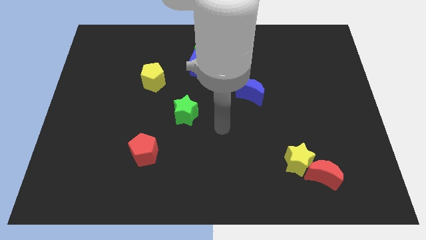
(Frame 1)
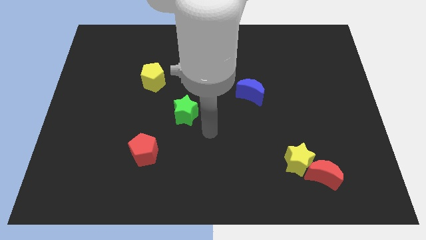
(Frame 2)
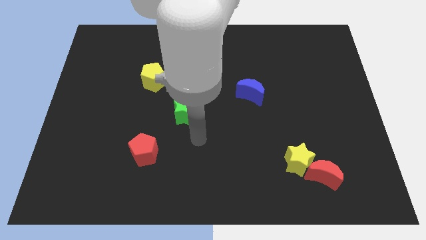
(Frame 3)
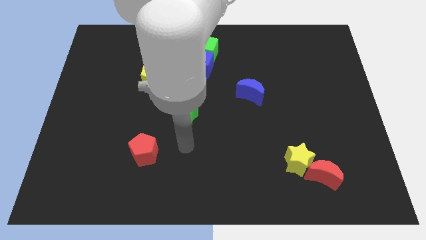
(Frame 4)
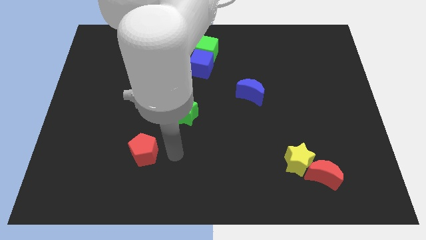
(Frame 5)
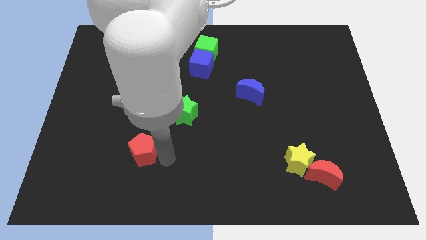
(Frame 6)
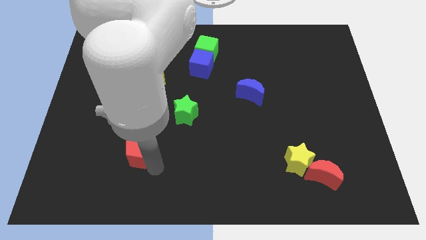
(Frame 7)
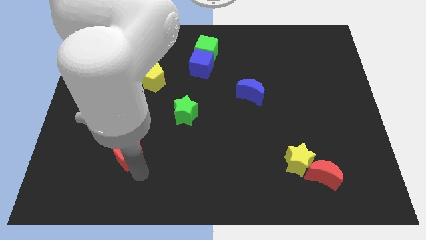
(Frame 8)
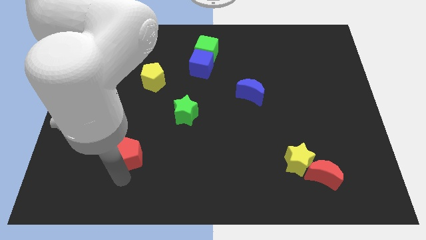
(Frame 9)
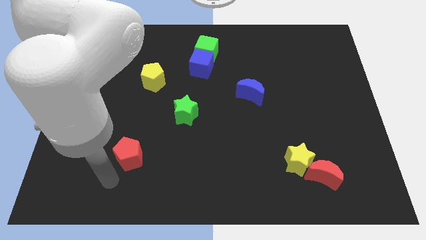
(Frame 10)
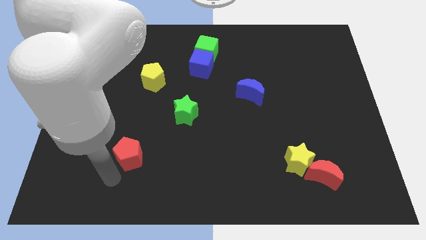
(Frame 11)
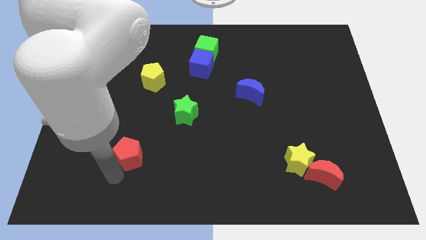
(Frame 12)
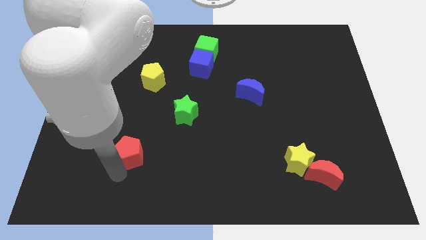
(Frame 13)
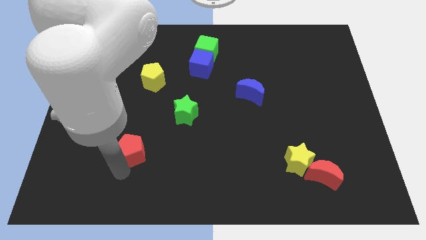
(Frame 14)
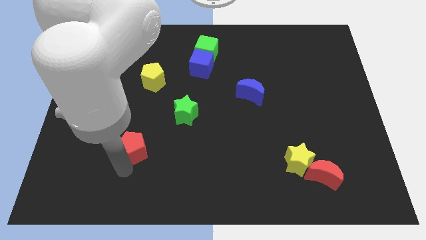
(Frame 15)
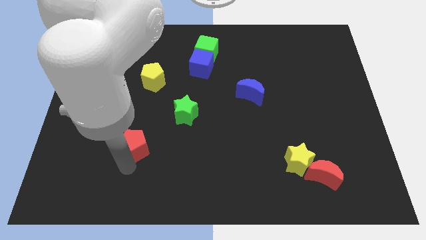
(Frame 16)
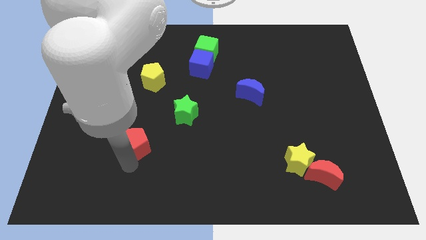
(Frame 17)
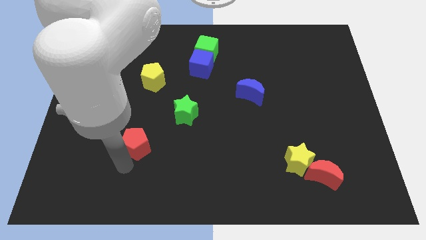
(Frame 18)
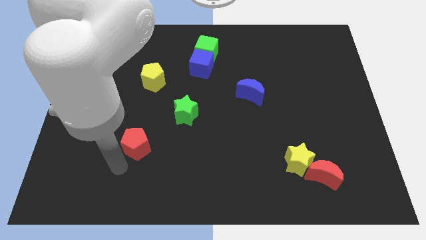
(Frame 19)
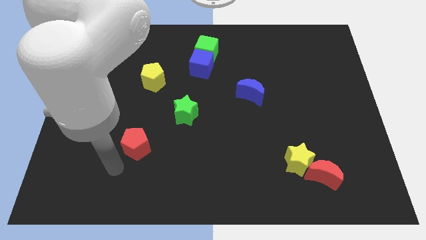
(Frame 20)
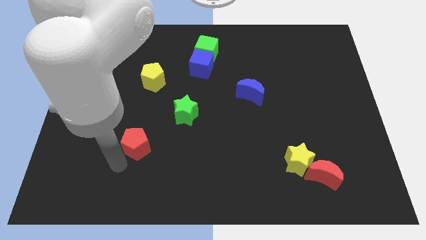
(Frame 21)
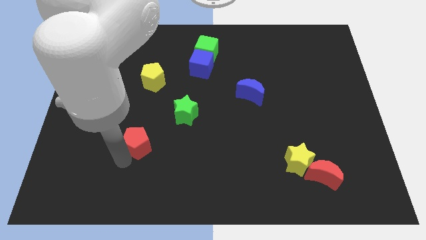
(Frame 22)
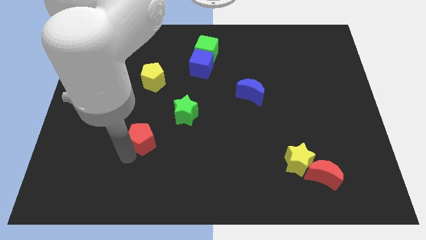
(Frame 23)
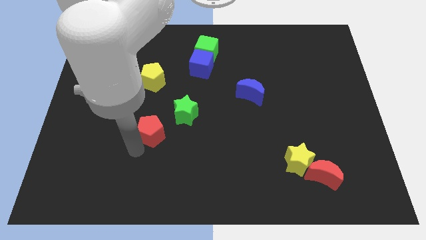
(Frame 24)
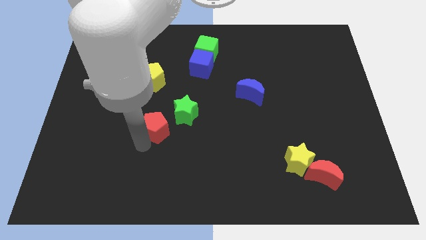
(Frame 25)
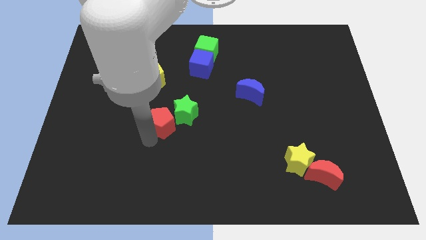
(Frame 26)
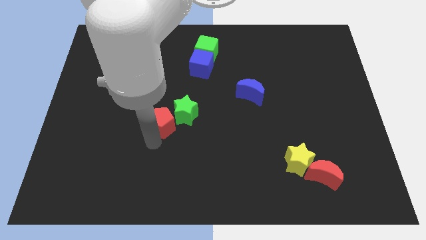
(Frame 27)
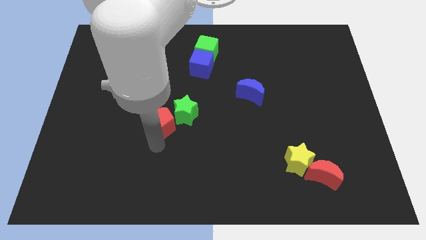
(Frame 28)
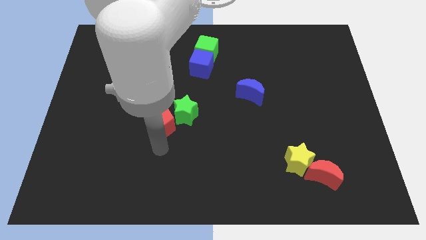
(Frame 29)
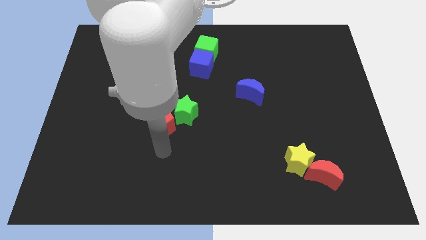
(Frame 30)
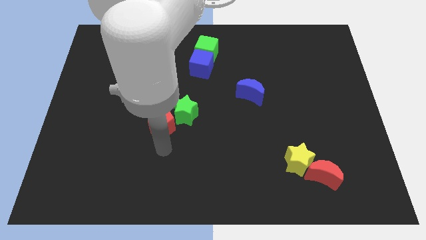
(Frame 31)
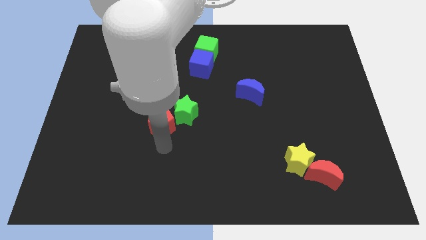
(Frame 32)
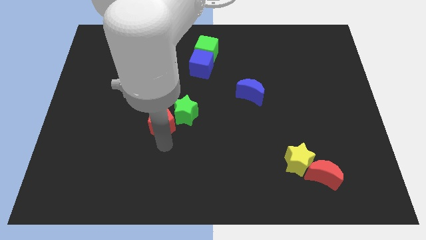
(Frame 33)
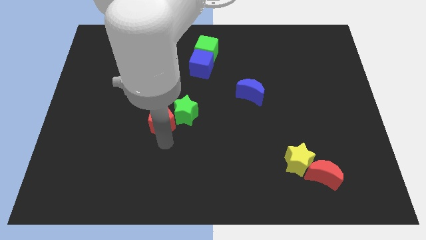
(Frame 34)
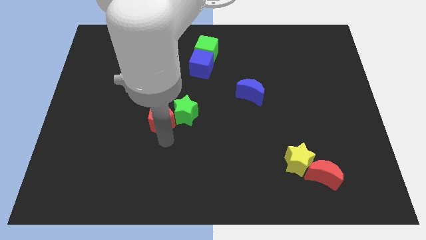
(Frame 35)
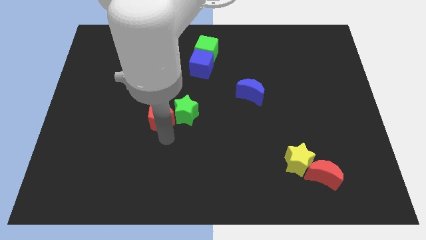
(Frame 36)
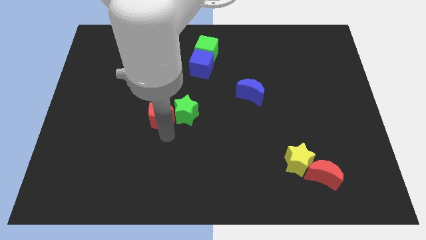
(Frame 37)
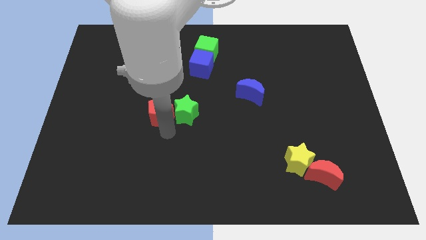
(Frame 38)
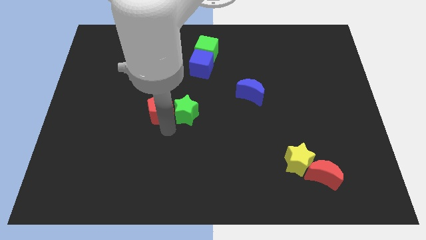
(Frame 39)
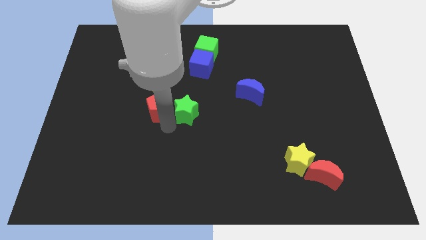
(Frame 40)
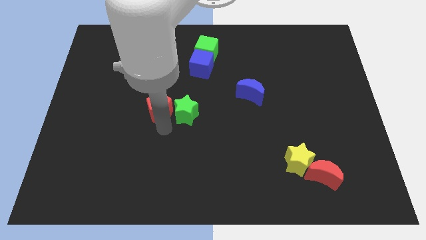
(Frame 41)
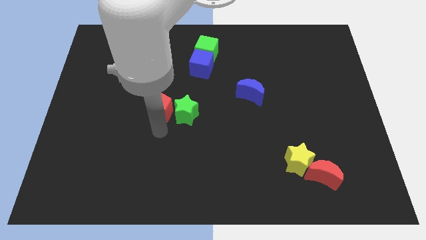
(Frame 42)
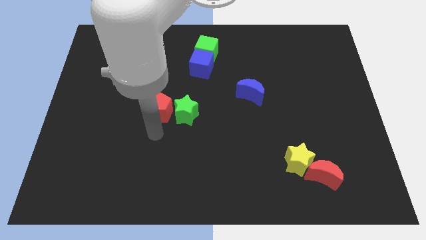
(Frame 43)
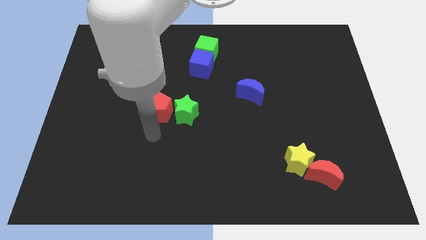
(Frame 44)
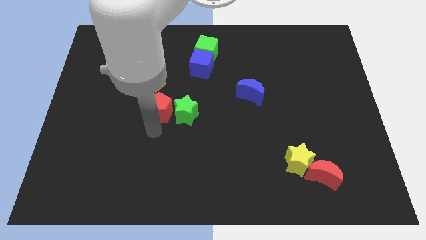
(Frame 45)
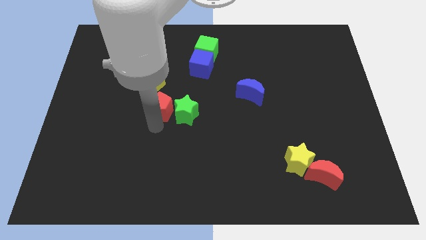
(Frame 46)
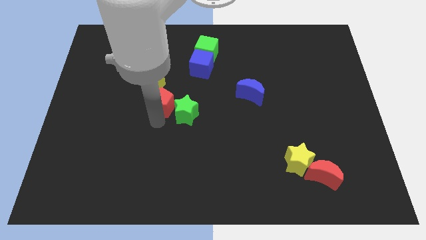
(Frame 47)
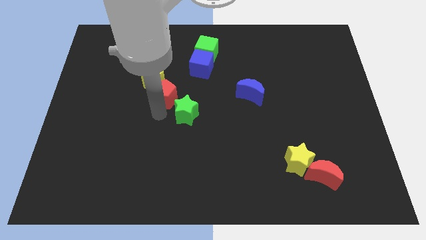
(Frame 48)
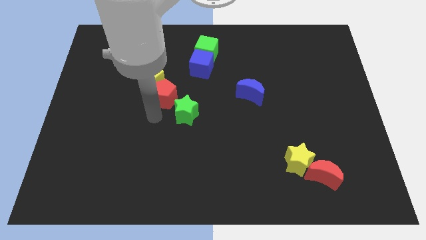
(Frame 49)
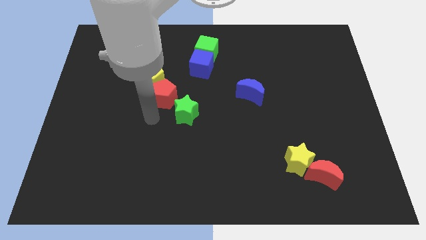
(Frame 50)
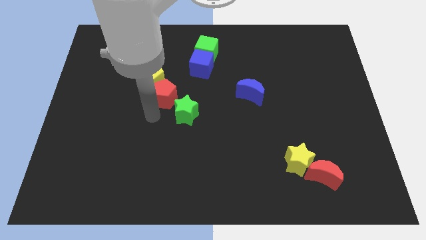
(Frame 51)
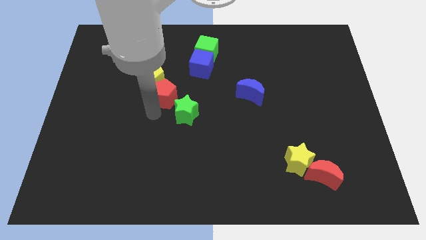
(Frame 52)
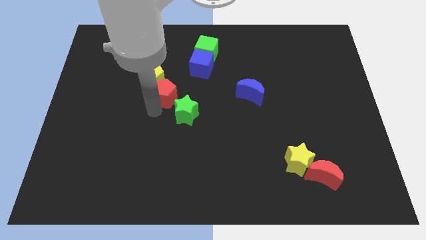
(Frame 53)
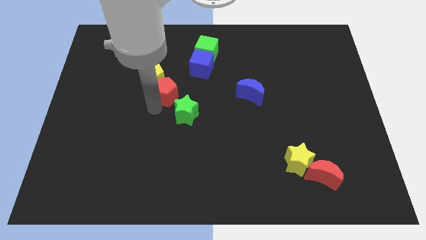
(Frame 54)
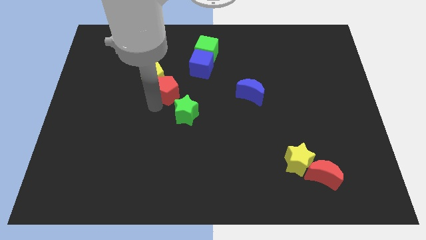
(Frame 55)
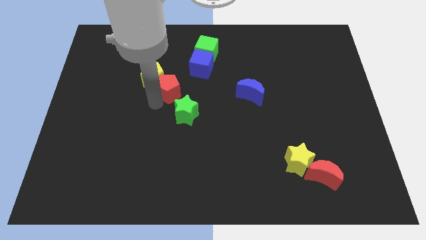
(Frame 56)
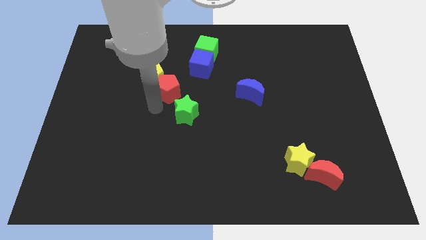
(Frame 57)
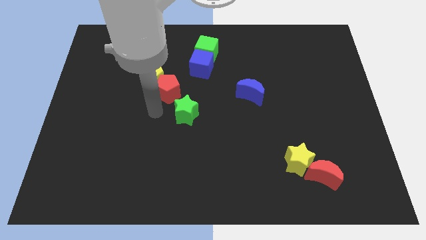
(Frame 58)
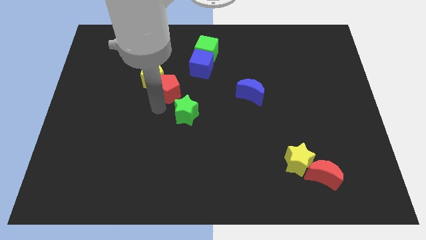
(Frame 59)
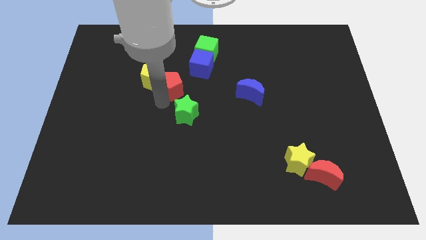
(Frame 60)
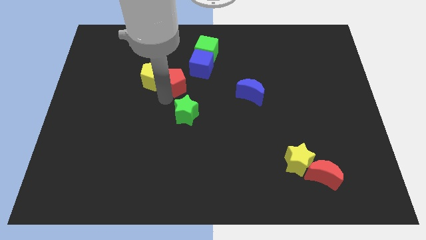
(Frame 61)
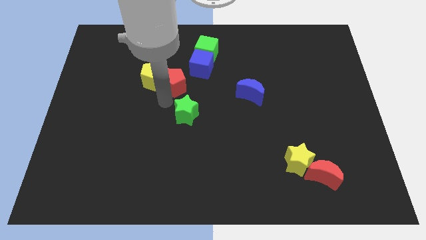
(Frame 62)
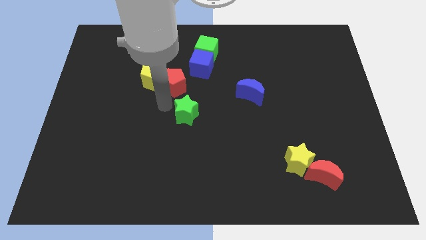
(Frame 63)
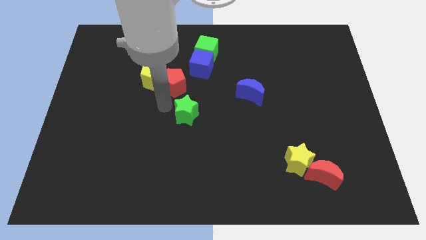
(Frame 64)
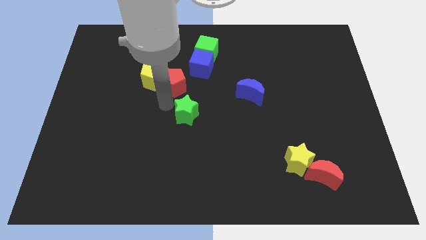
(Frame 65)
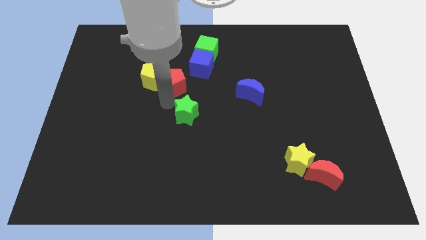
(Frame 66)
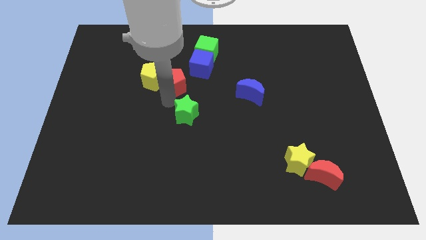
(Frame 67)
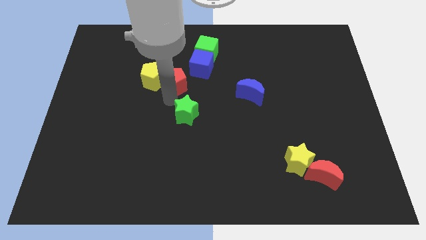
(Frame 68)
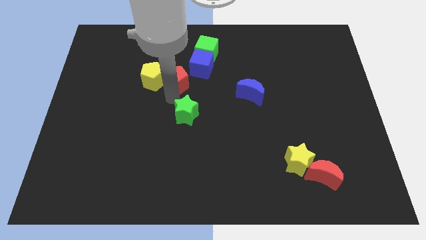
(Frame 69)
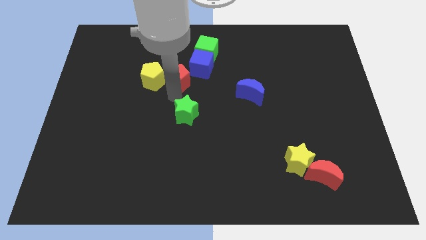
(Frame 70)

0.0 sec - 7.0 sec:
push the red pentagon to the bottom left side of the green cube
